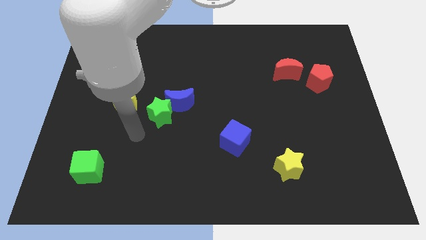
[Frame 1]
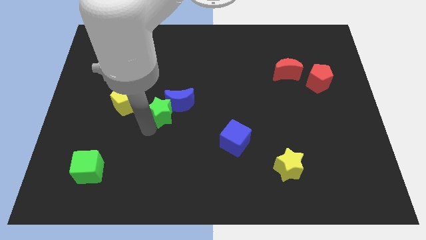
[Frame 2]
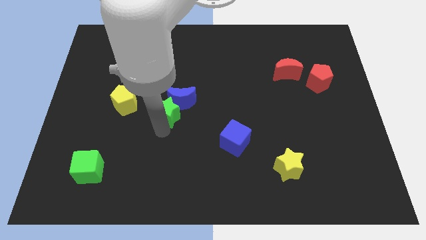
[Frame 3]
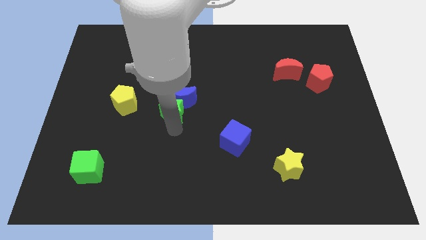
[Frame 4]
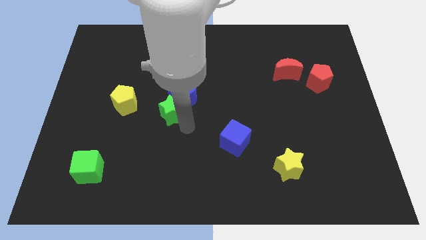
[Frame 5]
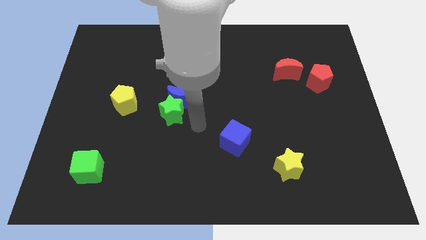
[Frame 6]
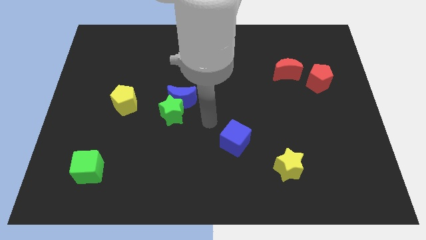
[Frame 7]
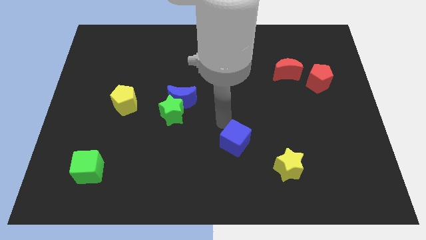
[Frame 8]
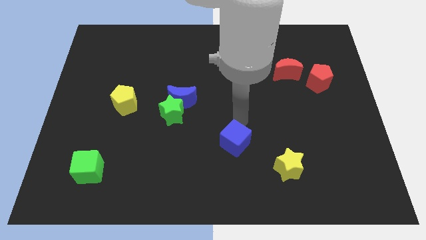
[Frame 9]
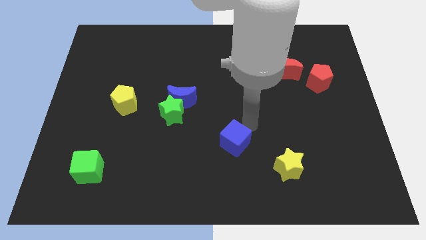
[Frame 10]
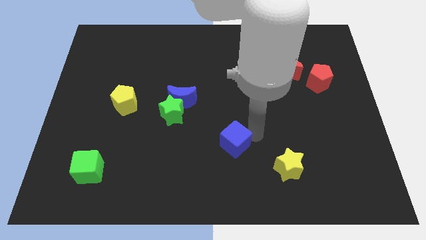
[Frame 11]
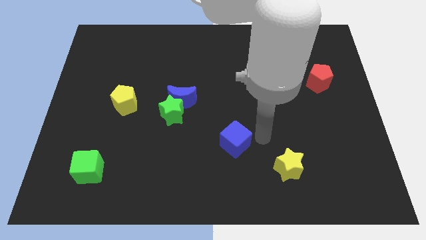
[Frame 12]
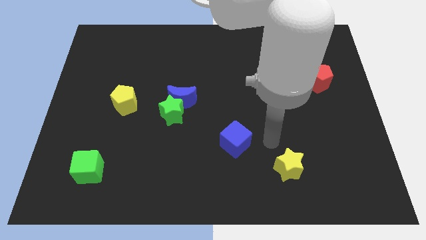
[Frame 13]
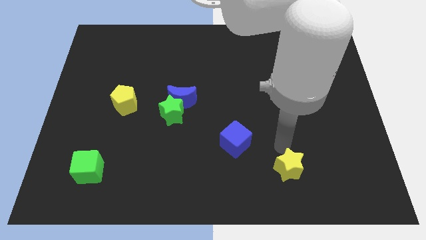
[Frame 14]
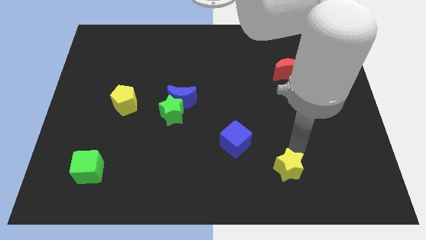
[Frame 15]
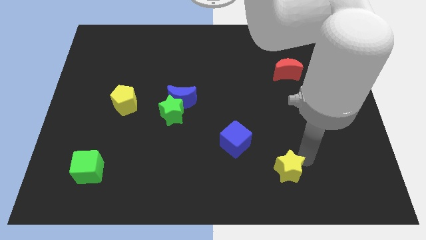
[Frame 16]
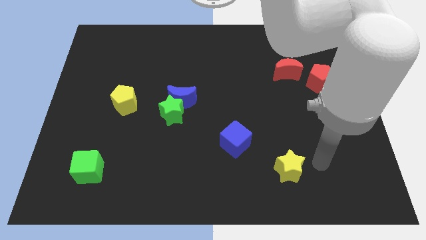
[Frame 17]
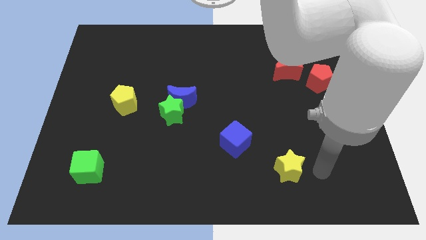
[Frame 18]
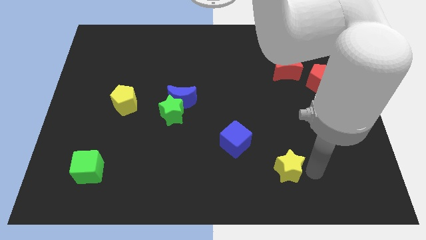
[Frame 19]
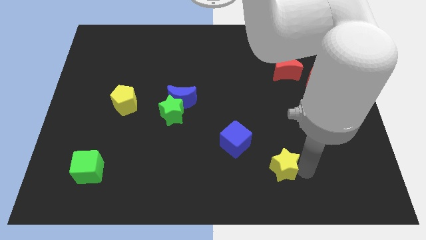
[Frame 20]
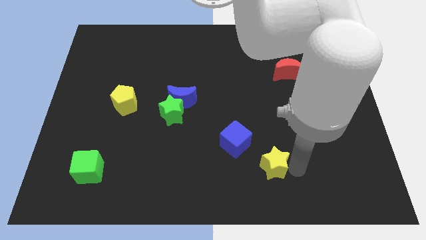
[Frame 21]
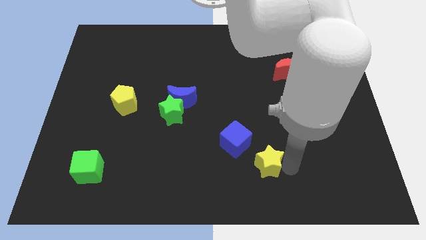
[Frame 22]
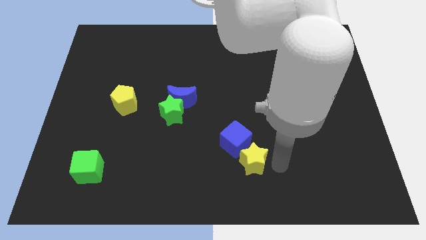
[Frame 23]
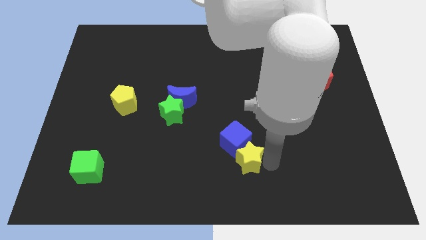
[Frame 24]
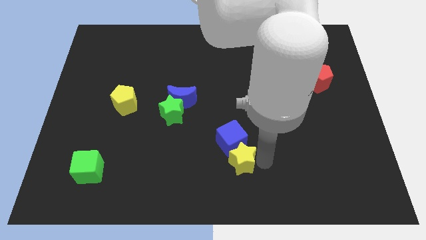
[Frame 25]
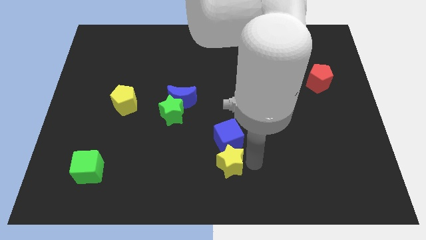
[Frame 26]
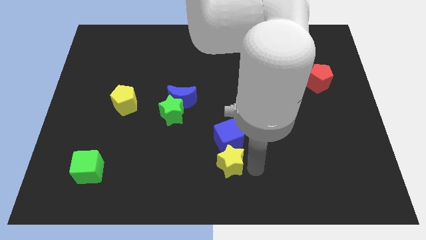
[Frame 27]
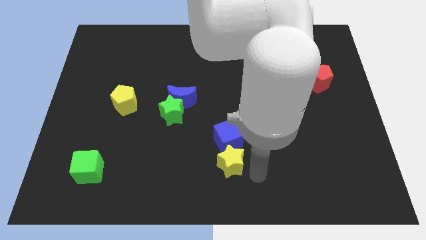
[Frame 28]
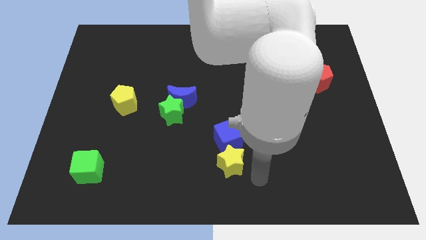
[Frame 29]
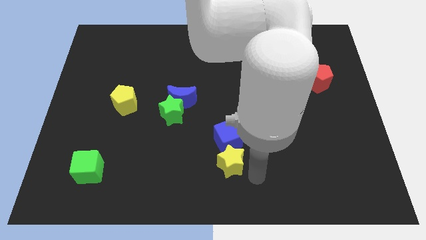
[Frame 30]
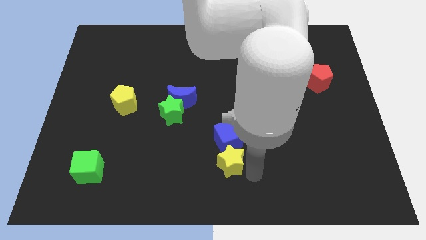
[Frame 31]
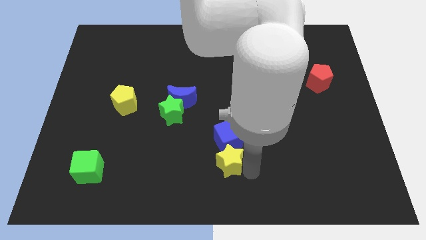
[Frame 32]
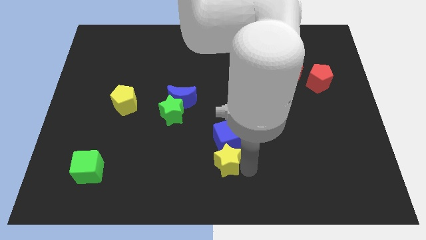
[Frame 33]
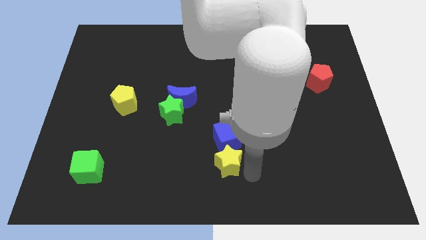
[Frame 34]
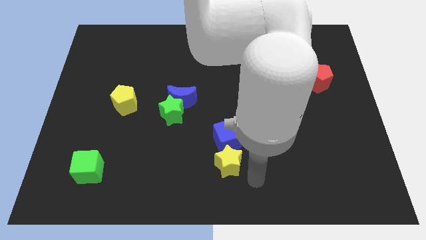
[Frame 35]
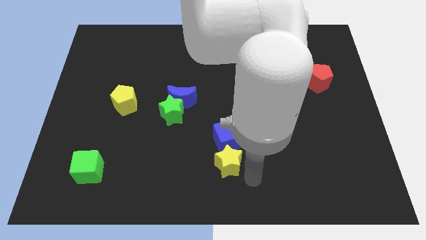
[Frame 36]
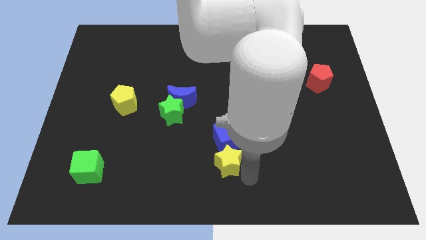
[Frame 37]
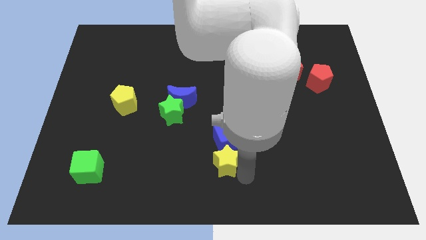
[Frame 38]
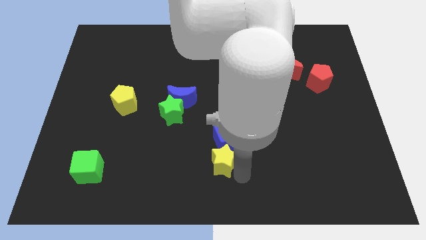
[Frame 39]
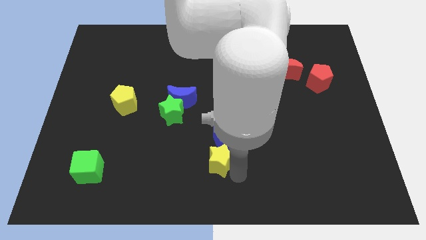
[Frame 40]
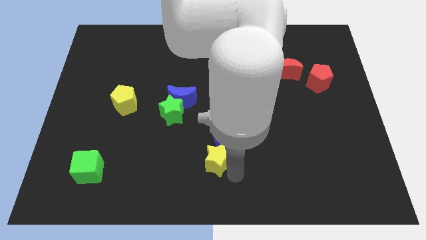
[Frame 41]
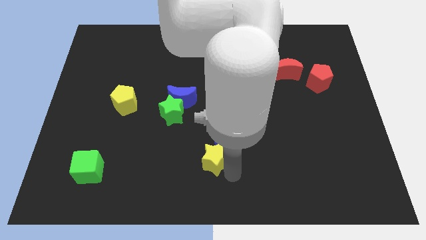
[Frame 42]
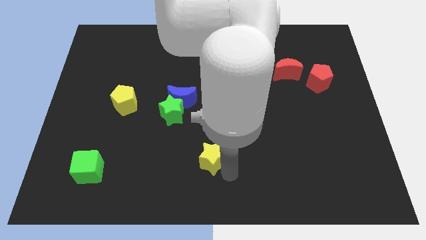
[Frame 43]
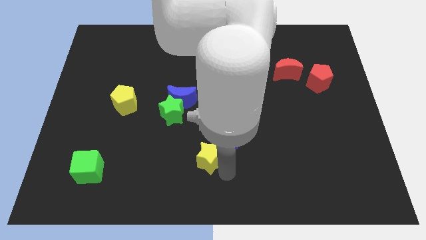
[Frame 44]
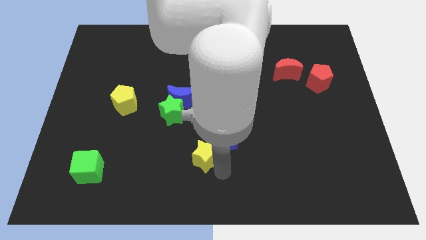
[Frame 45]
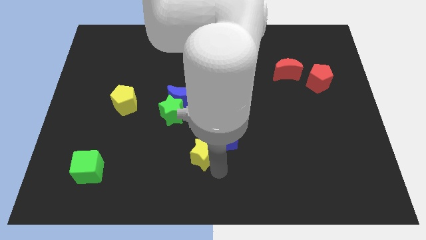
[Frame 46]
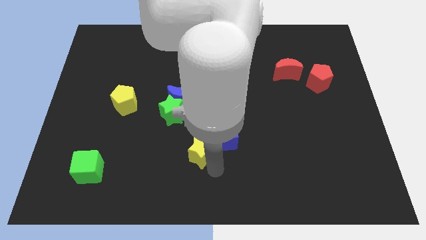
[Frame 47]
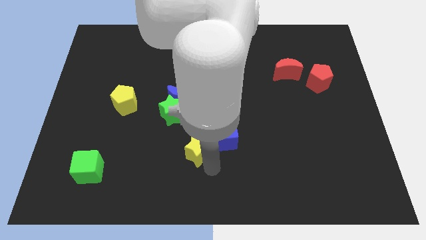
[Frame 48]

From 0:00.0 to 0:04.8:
move the yellow star to the bottom right side of the green star

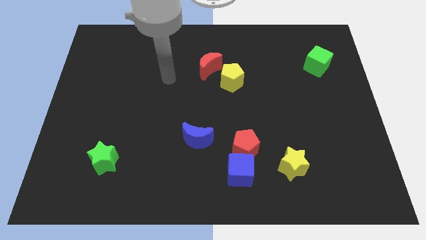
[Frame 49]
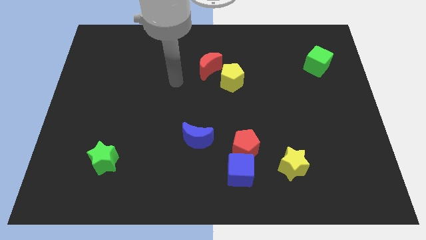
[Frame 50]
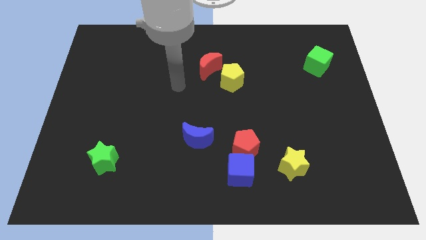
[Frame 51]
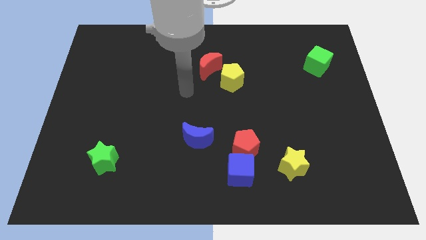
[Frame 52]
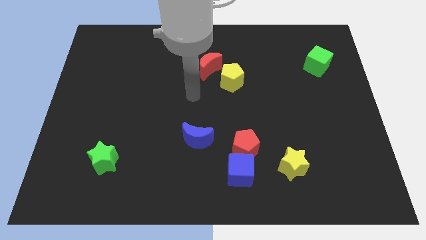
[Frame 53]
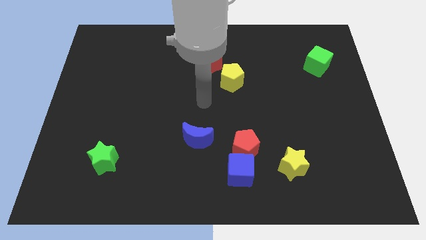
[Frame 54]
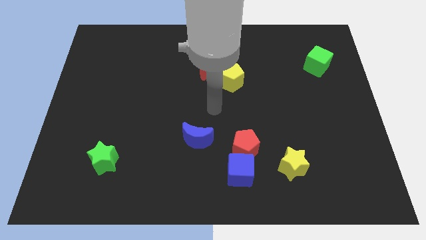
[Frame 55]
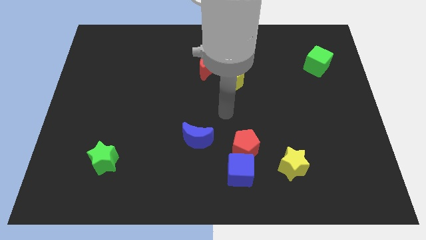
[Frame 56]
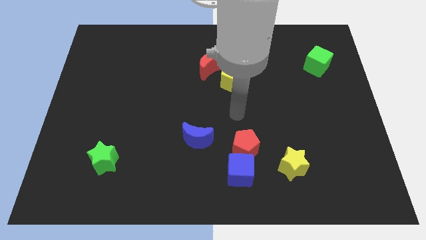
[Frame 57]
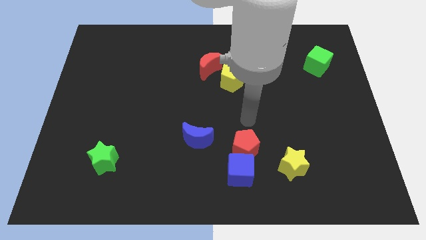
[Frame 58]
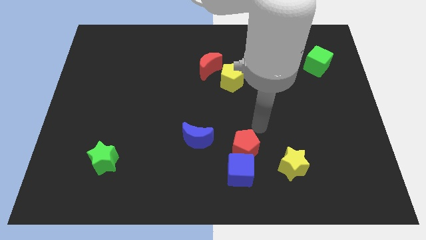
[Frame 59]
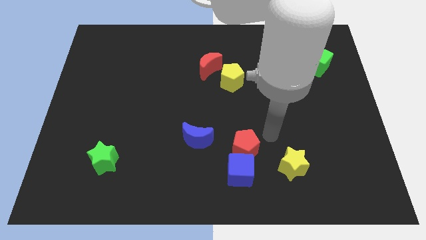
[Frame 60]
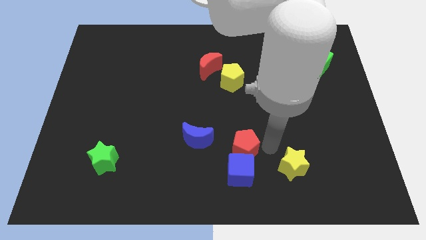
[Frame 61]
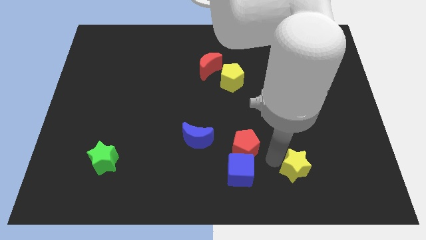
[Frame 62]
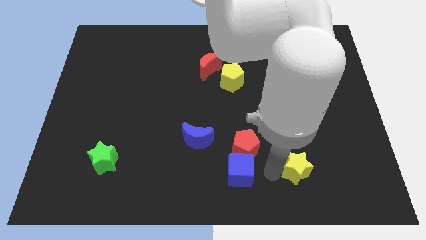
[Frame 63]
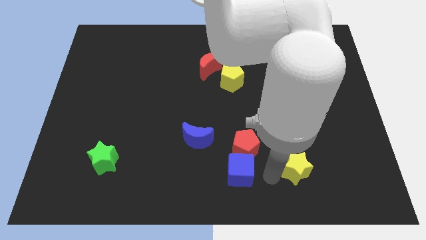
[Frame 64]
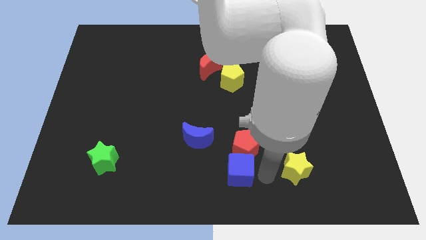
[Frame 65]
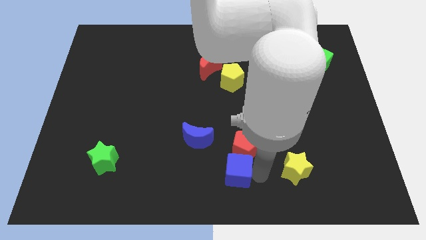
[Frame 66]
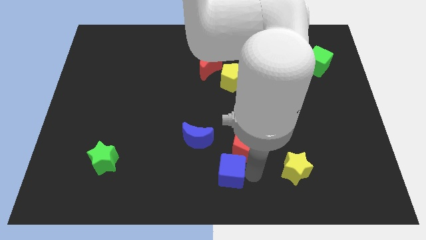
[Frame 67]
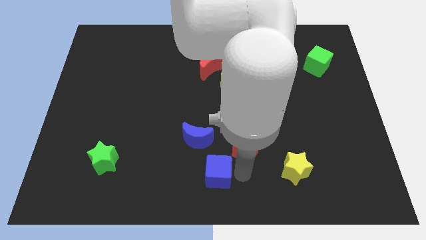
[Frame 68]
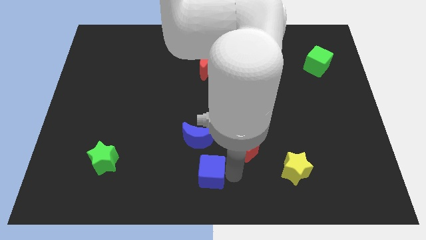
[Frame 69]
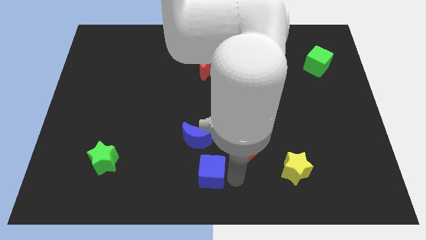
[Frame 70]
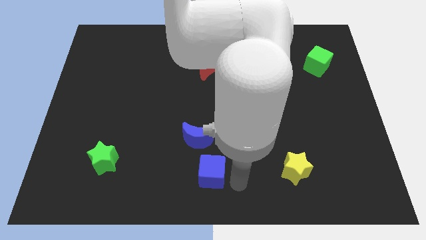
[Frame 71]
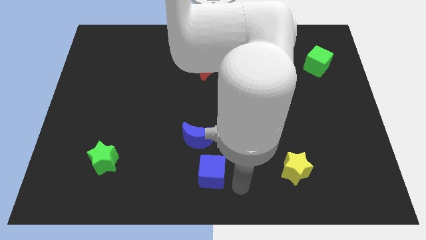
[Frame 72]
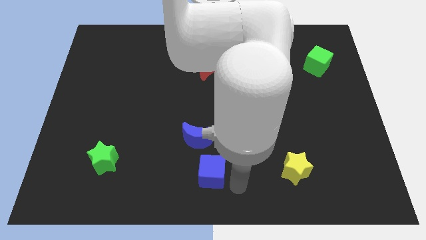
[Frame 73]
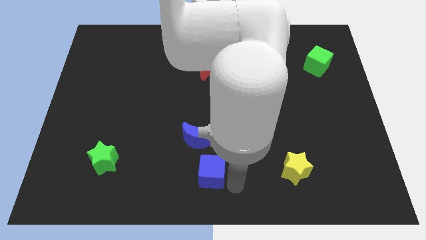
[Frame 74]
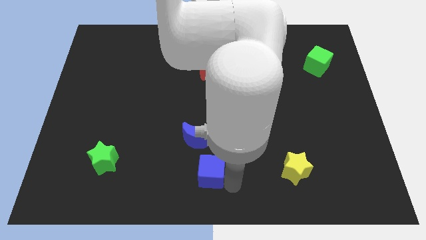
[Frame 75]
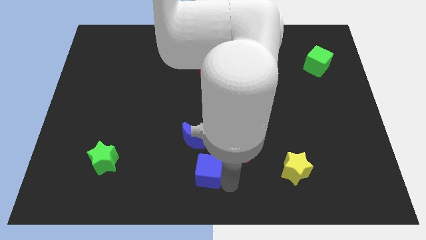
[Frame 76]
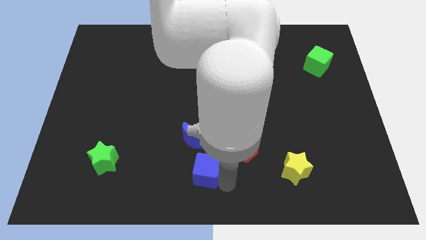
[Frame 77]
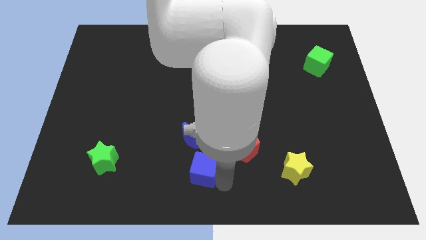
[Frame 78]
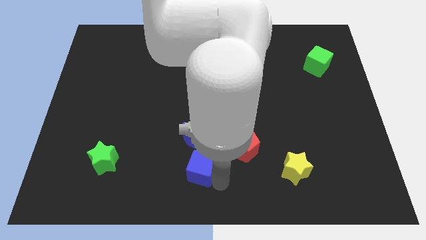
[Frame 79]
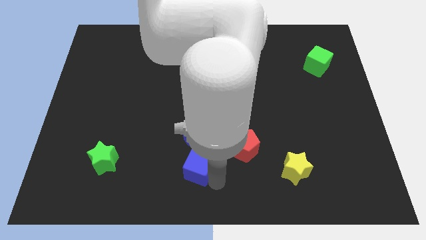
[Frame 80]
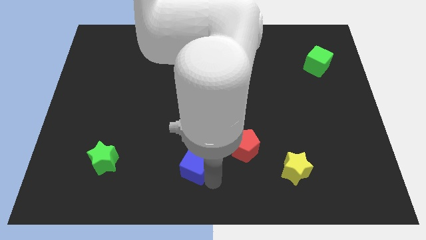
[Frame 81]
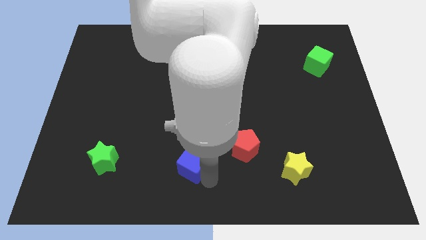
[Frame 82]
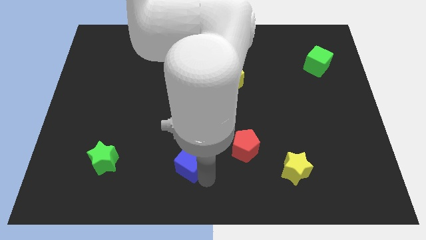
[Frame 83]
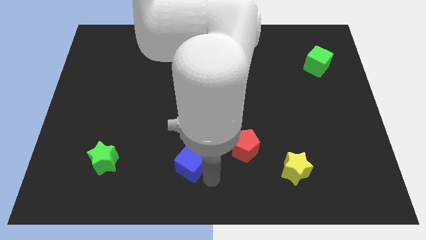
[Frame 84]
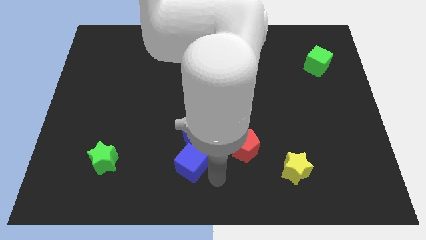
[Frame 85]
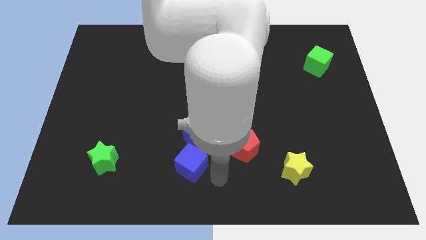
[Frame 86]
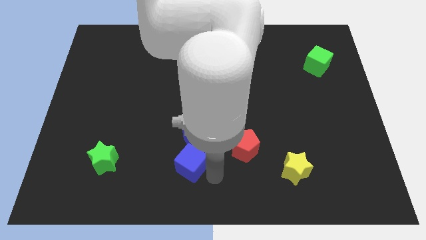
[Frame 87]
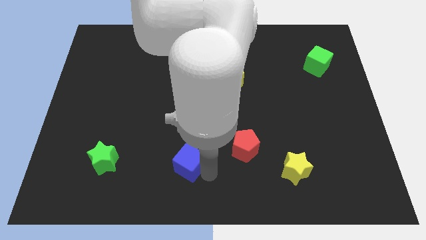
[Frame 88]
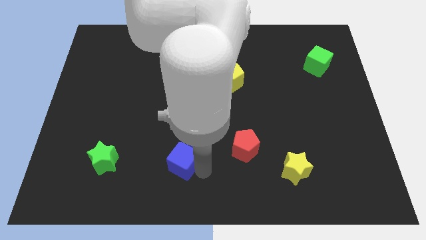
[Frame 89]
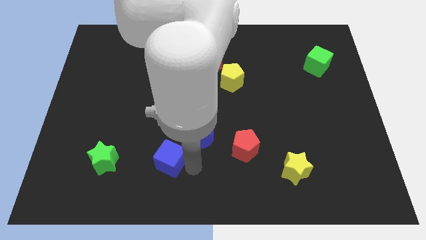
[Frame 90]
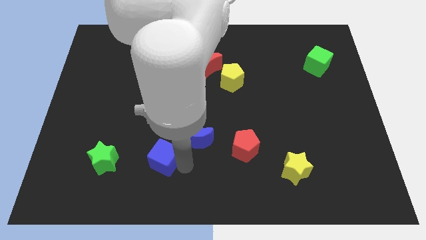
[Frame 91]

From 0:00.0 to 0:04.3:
push the blue cube just left of the blue moon
